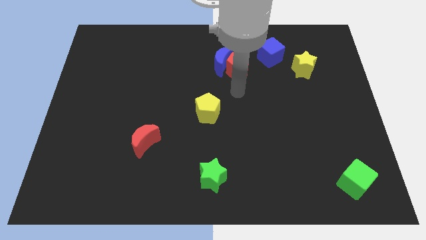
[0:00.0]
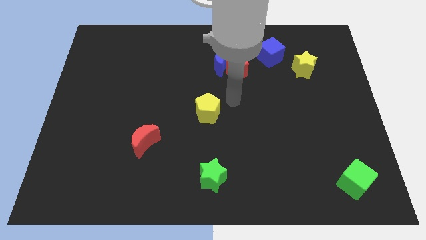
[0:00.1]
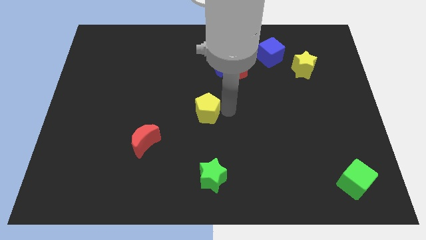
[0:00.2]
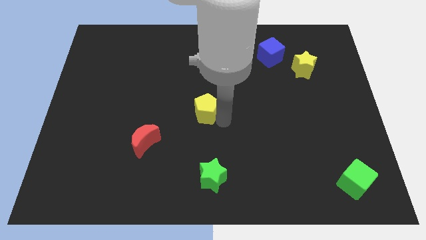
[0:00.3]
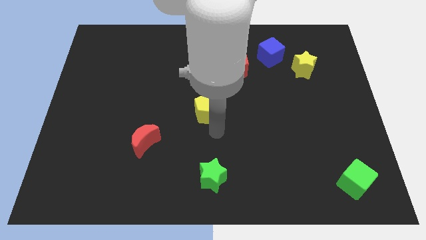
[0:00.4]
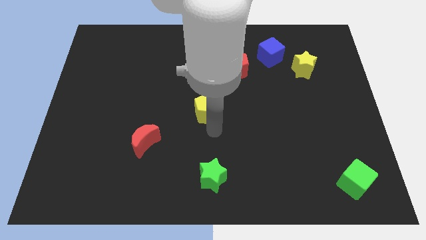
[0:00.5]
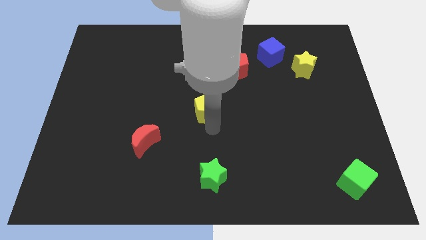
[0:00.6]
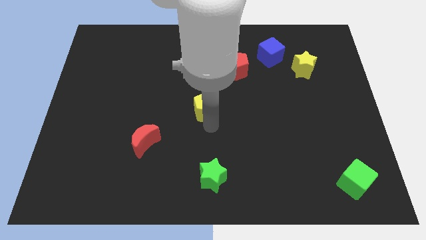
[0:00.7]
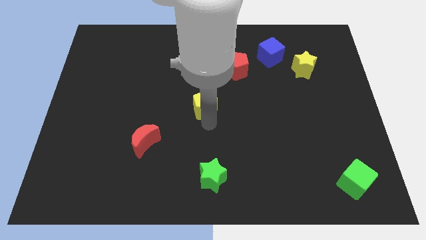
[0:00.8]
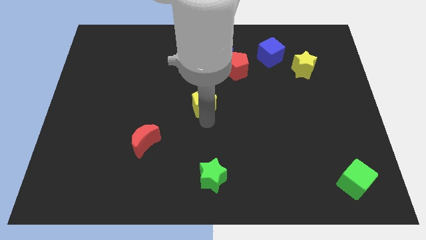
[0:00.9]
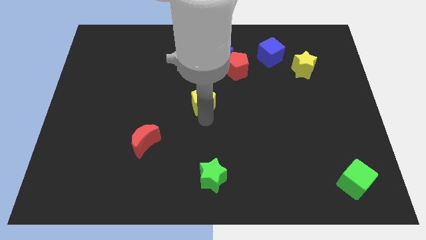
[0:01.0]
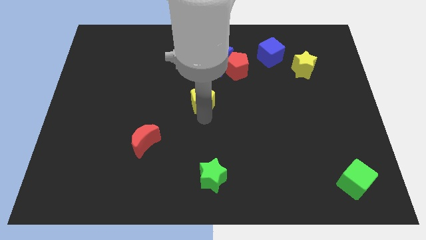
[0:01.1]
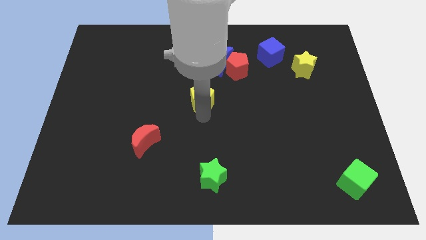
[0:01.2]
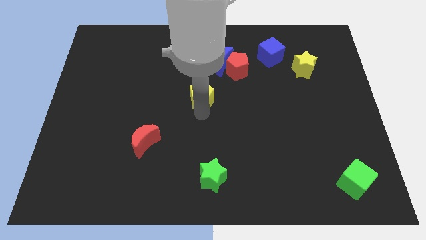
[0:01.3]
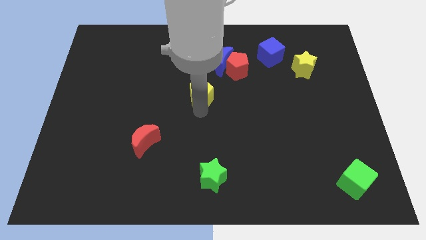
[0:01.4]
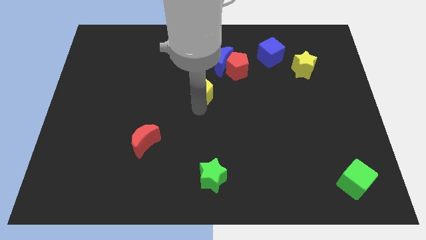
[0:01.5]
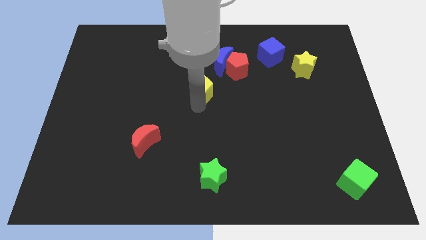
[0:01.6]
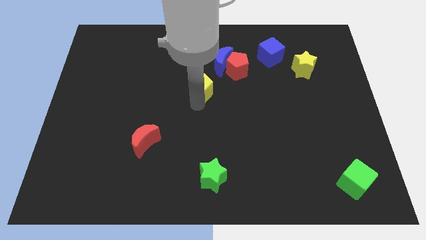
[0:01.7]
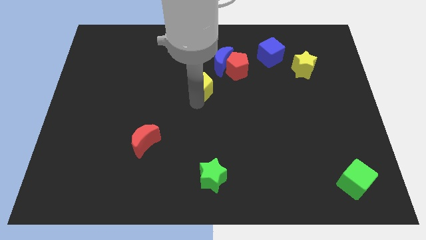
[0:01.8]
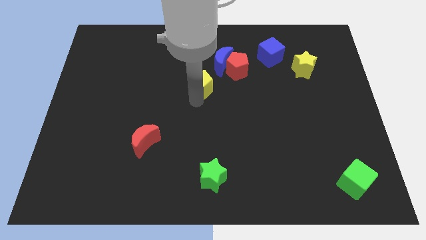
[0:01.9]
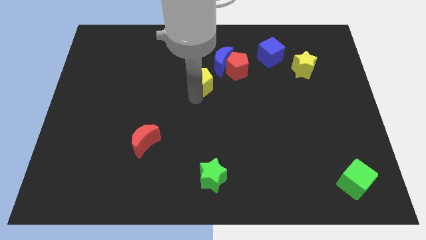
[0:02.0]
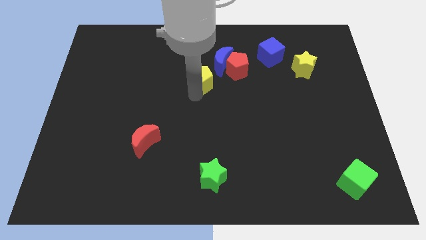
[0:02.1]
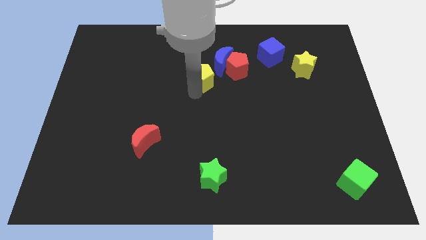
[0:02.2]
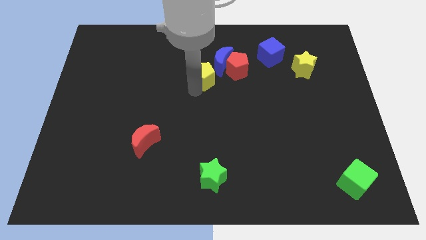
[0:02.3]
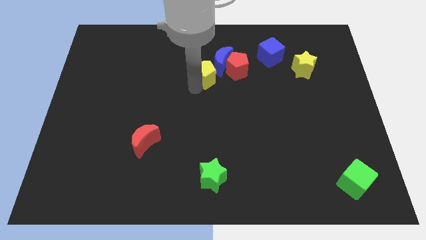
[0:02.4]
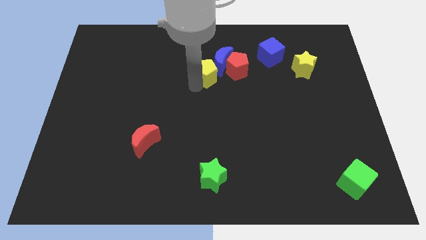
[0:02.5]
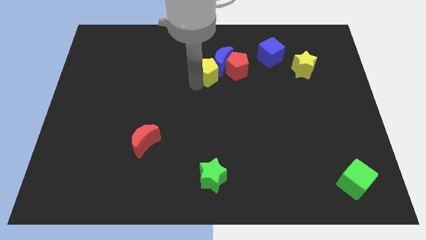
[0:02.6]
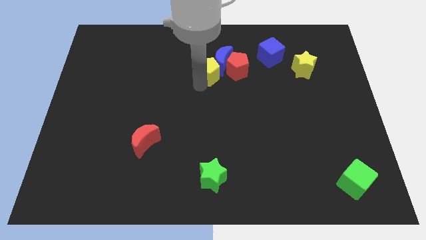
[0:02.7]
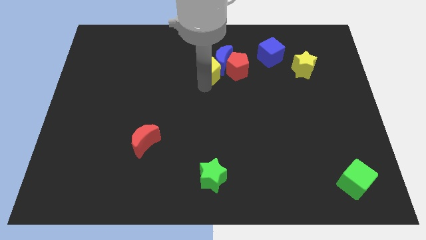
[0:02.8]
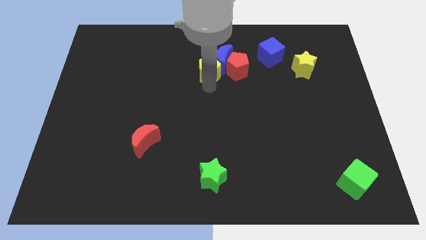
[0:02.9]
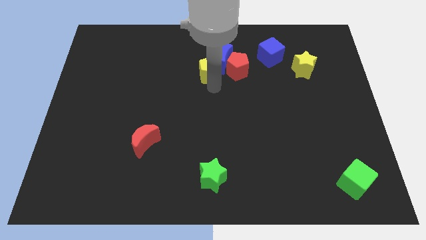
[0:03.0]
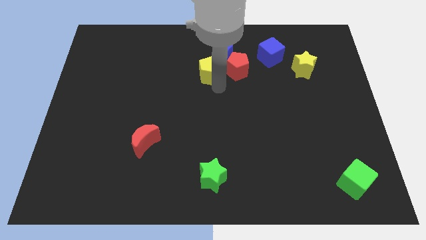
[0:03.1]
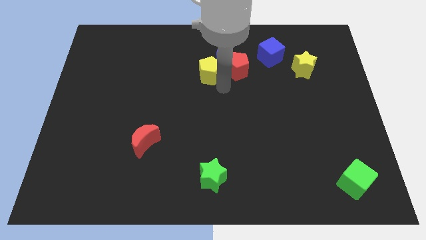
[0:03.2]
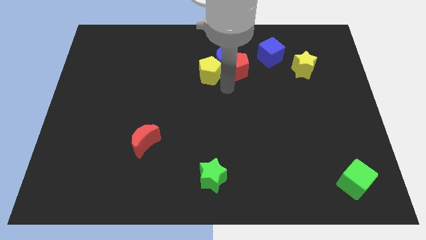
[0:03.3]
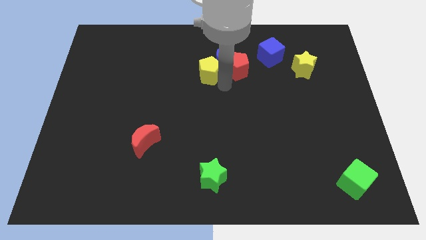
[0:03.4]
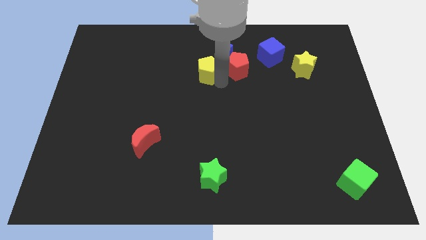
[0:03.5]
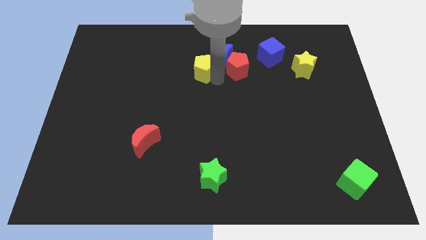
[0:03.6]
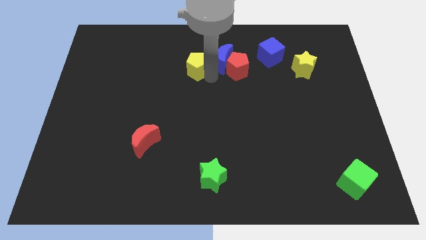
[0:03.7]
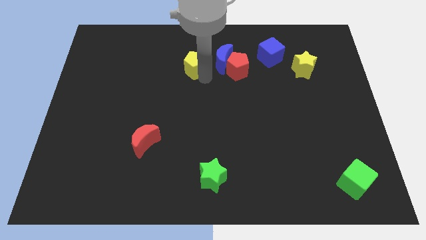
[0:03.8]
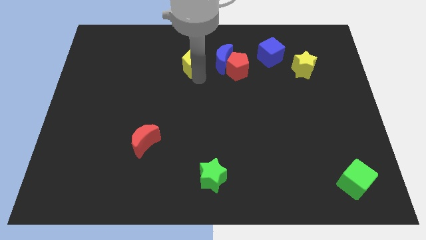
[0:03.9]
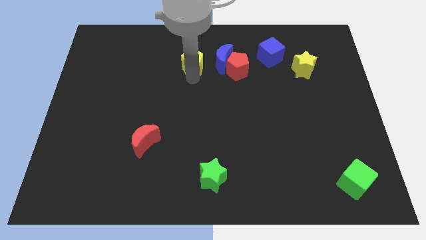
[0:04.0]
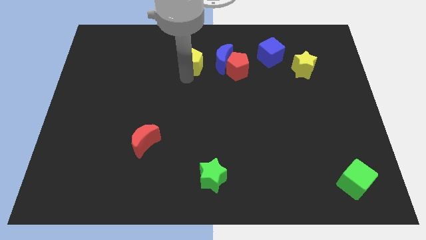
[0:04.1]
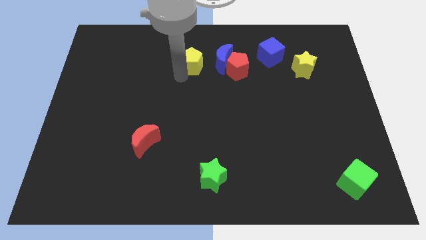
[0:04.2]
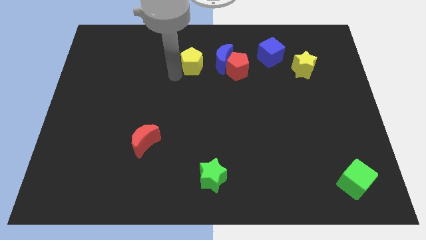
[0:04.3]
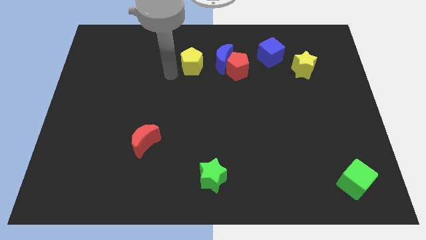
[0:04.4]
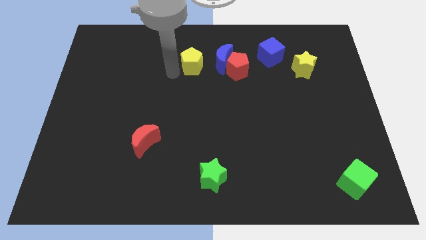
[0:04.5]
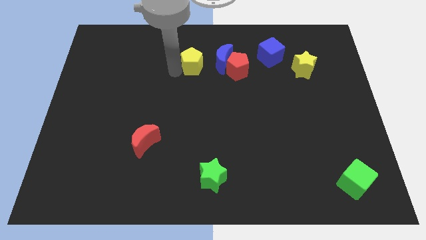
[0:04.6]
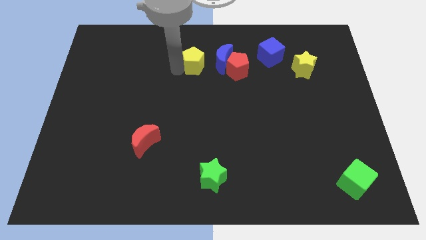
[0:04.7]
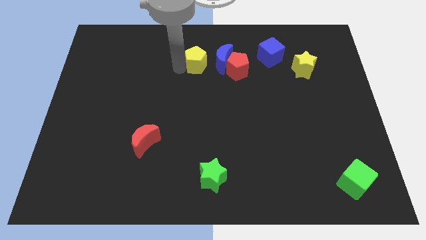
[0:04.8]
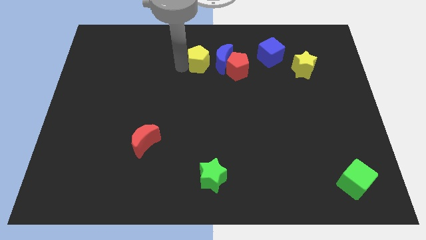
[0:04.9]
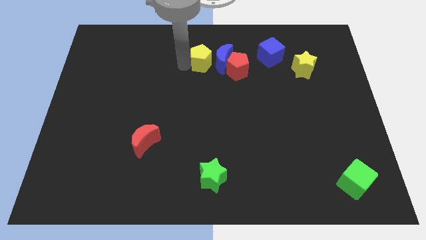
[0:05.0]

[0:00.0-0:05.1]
put the yellow pentagon to the top left side of the red pentagon

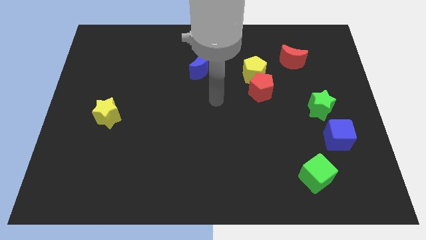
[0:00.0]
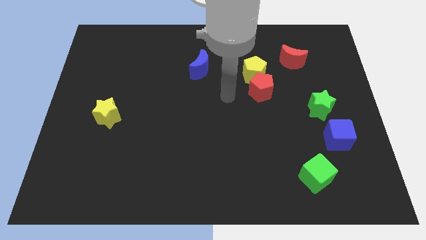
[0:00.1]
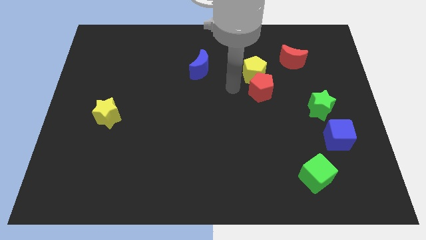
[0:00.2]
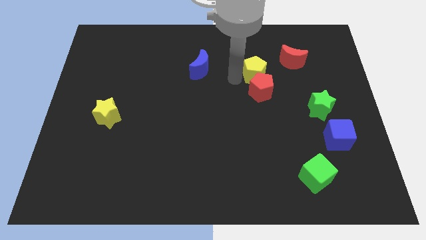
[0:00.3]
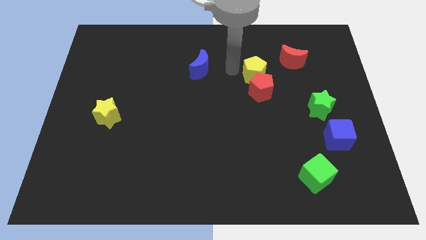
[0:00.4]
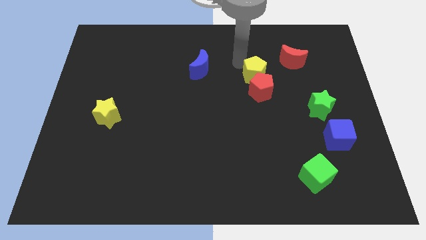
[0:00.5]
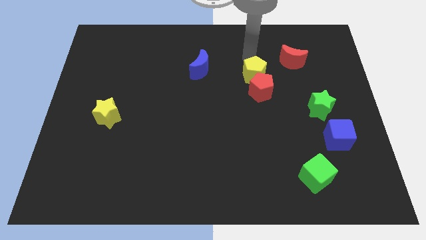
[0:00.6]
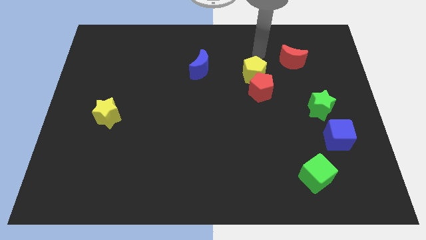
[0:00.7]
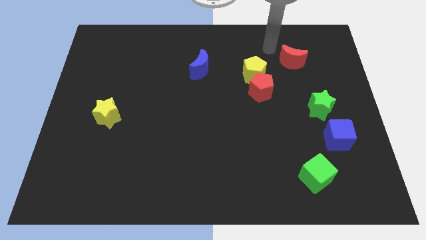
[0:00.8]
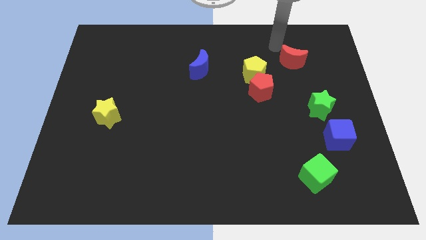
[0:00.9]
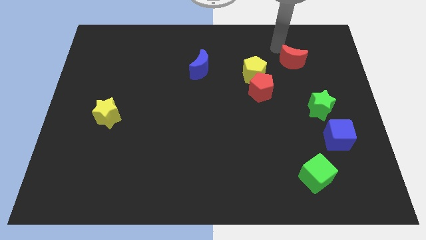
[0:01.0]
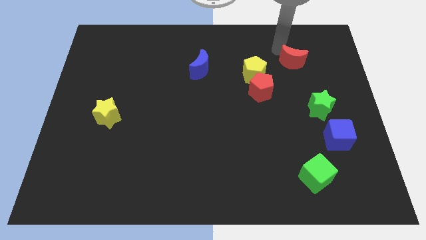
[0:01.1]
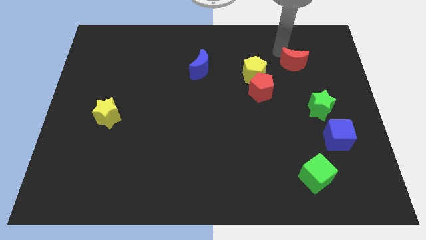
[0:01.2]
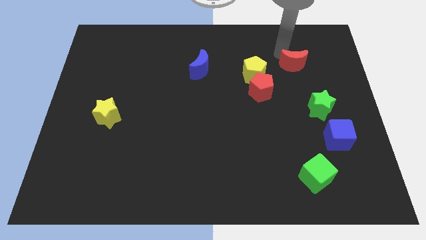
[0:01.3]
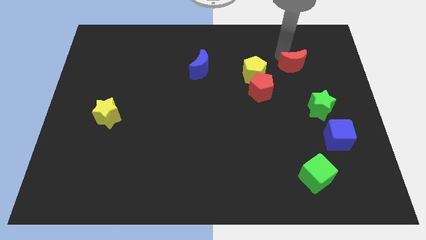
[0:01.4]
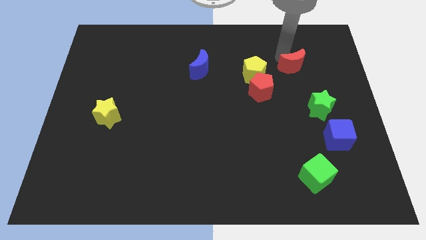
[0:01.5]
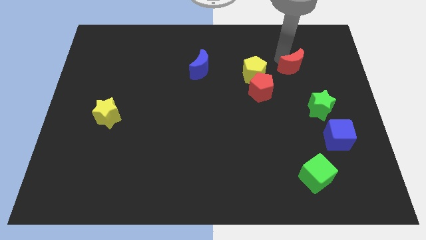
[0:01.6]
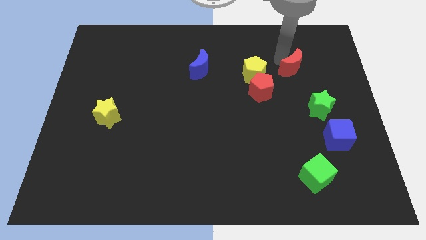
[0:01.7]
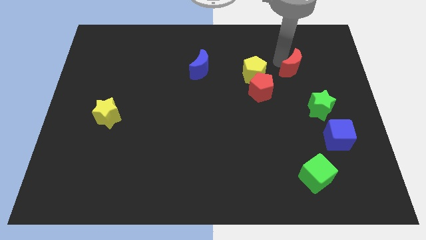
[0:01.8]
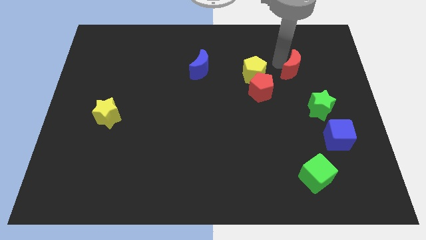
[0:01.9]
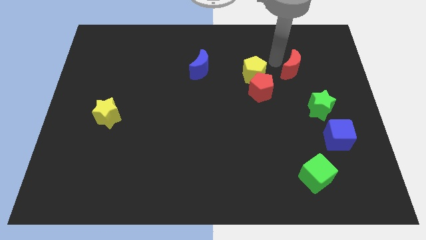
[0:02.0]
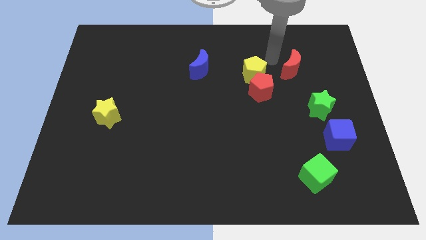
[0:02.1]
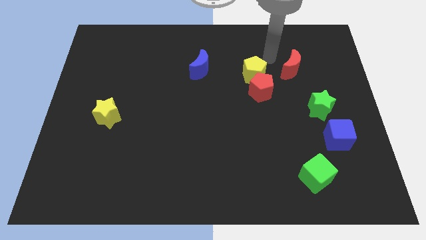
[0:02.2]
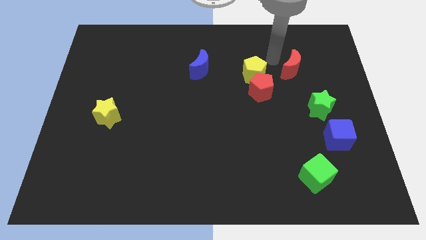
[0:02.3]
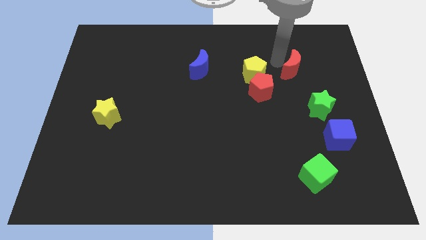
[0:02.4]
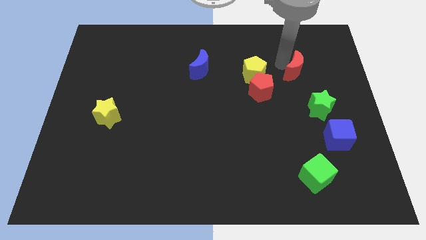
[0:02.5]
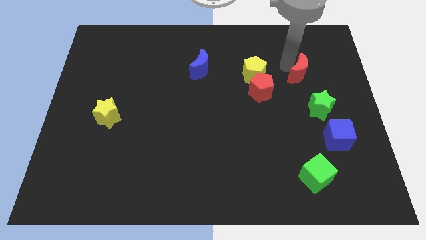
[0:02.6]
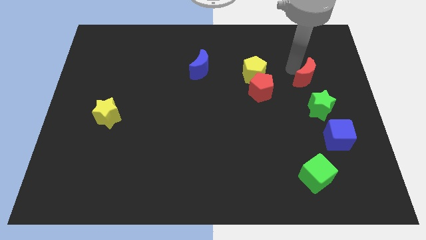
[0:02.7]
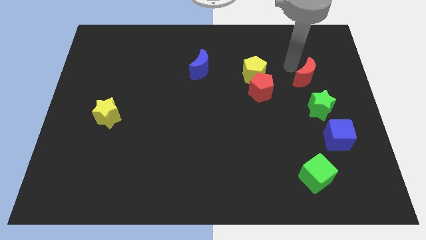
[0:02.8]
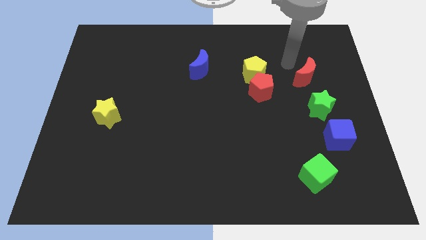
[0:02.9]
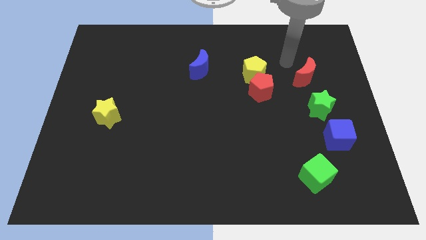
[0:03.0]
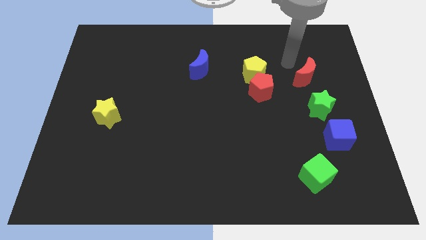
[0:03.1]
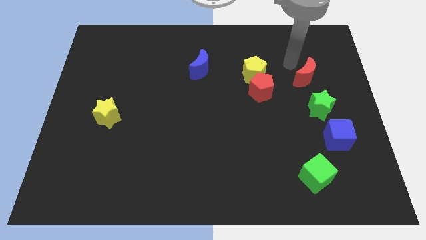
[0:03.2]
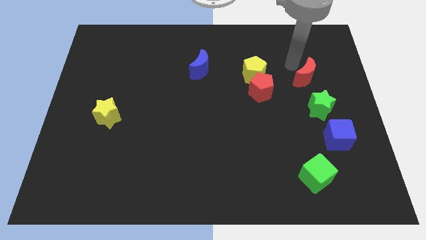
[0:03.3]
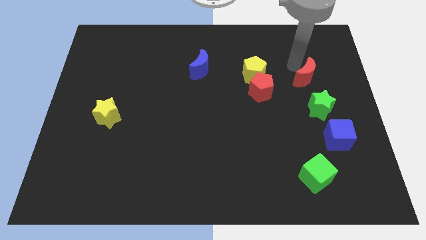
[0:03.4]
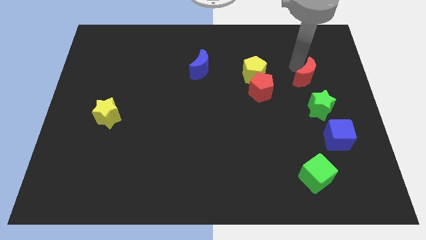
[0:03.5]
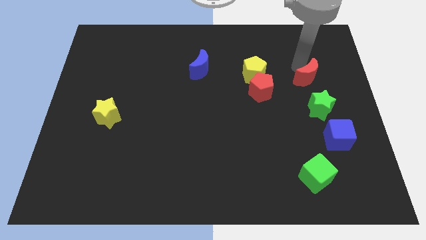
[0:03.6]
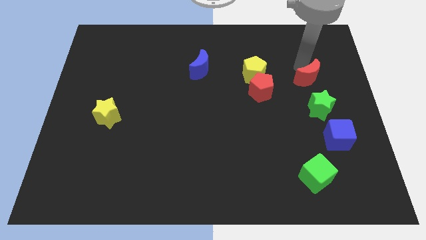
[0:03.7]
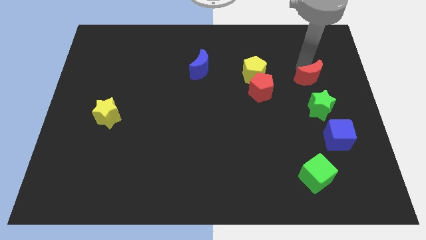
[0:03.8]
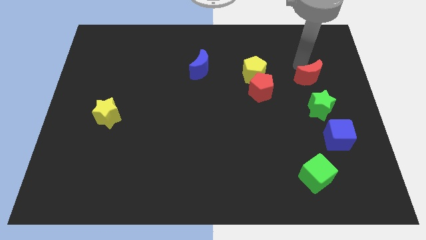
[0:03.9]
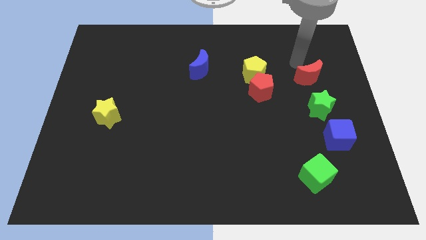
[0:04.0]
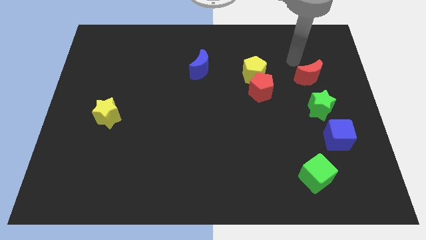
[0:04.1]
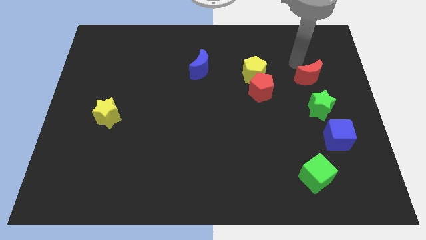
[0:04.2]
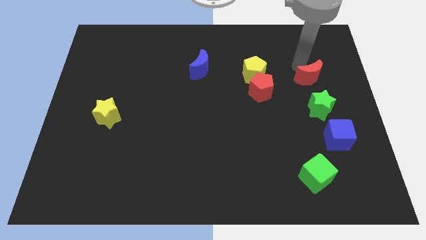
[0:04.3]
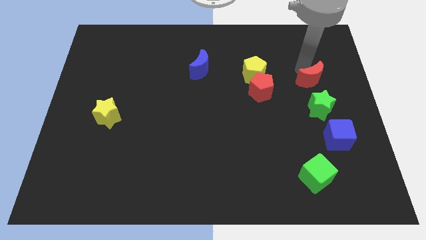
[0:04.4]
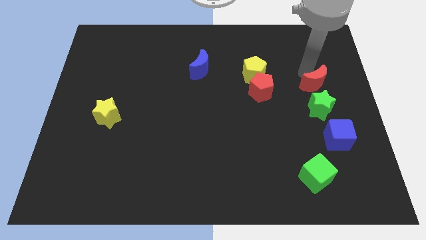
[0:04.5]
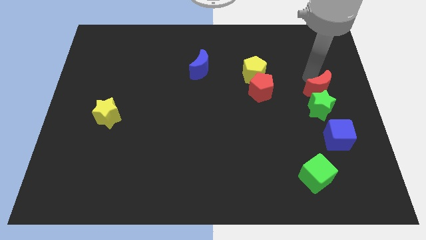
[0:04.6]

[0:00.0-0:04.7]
move the red moon above the blue cube
